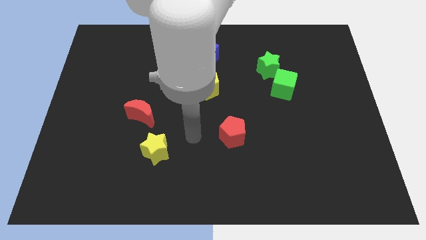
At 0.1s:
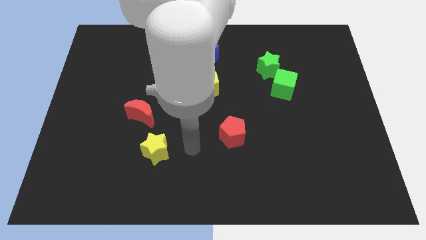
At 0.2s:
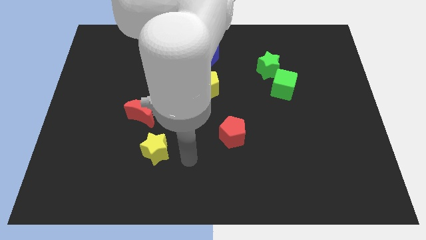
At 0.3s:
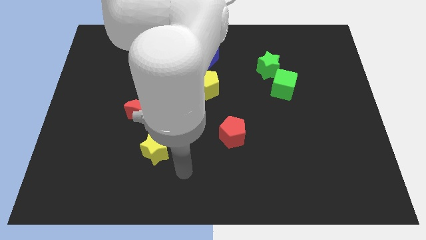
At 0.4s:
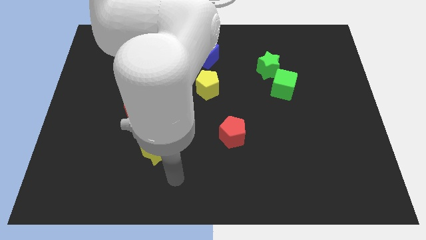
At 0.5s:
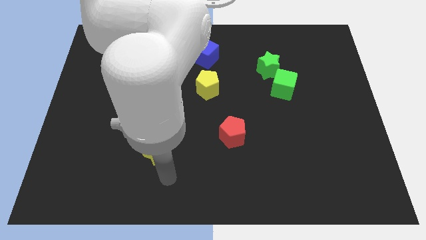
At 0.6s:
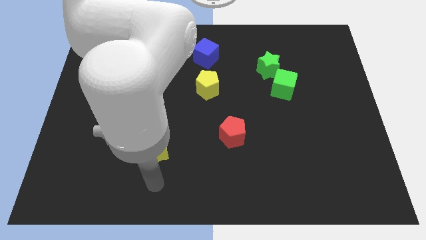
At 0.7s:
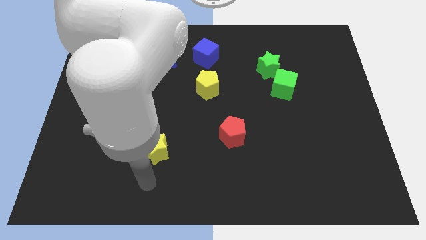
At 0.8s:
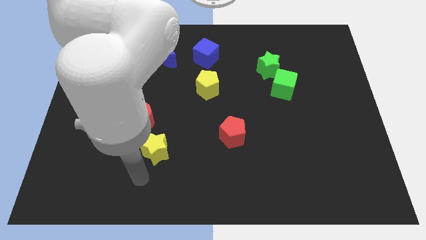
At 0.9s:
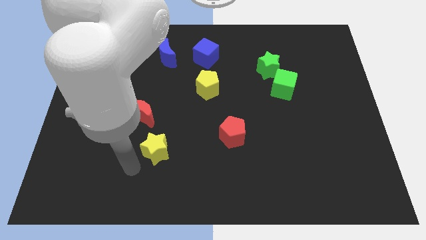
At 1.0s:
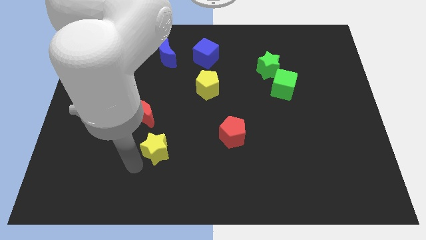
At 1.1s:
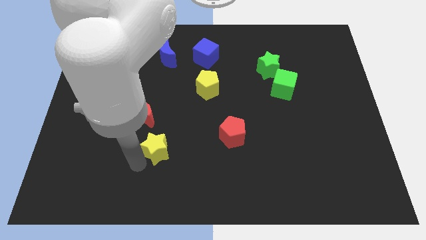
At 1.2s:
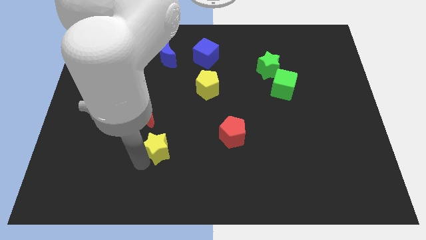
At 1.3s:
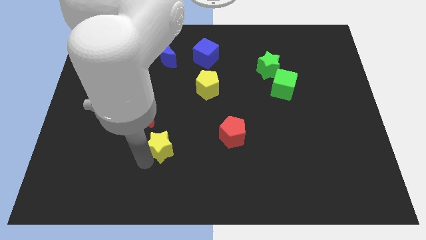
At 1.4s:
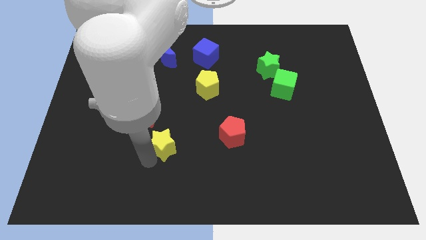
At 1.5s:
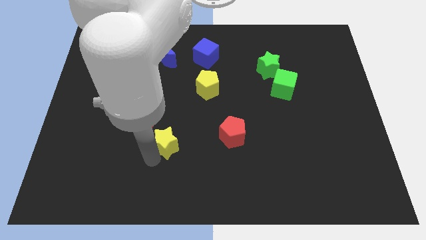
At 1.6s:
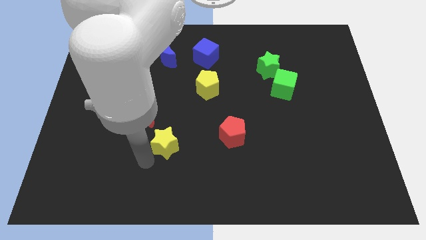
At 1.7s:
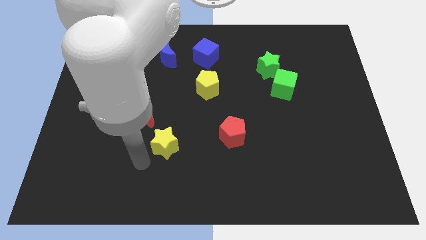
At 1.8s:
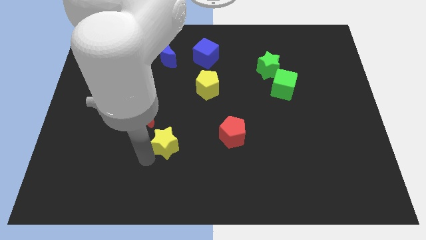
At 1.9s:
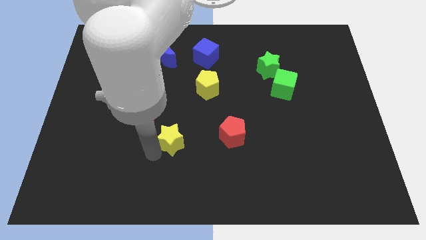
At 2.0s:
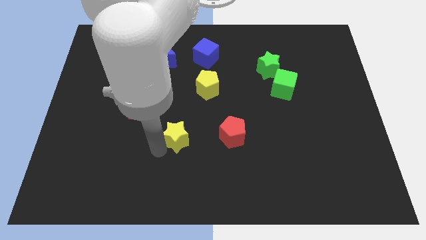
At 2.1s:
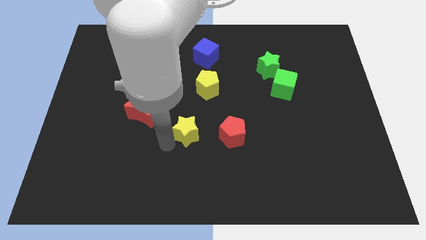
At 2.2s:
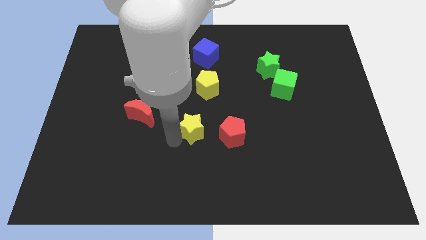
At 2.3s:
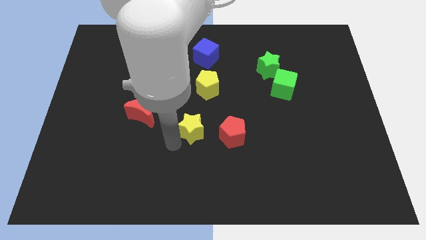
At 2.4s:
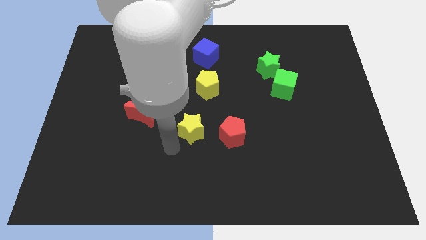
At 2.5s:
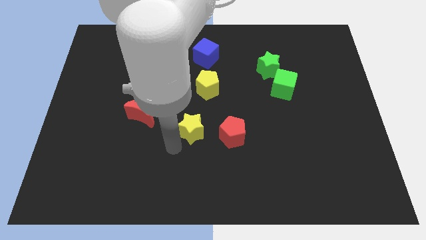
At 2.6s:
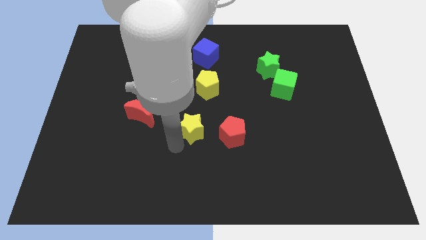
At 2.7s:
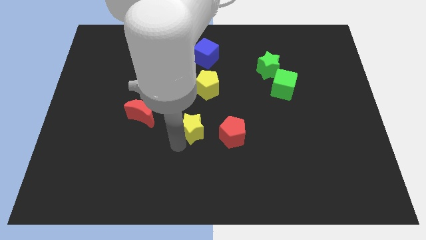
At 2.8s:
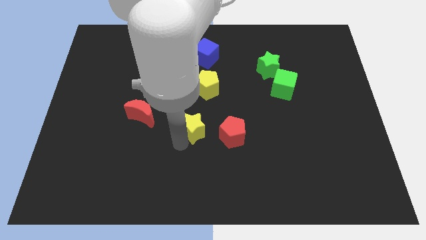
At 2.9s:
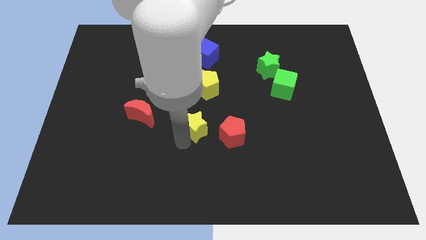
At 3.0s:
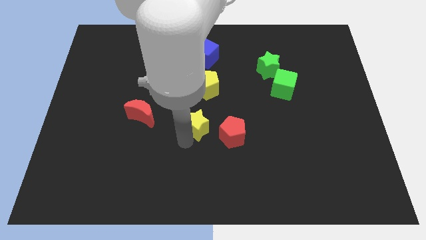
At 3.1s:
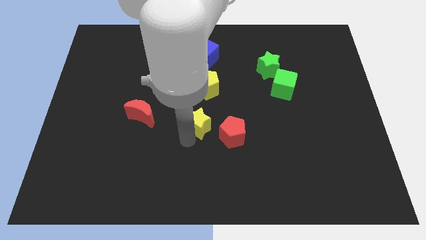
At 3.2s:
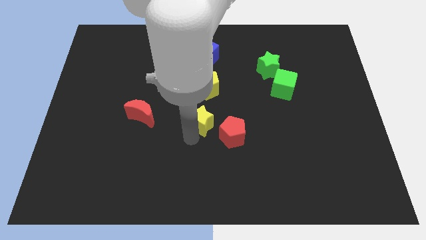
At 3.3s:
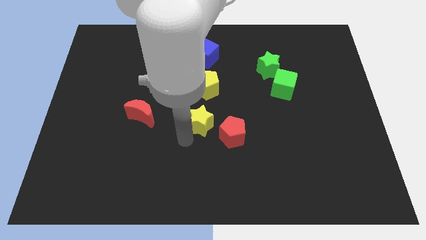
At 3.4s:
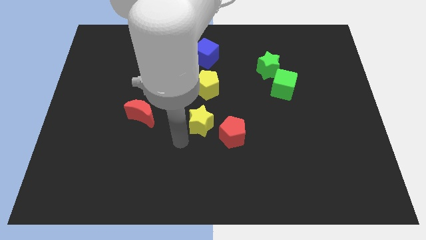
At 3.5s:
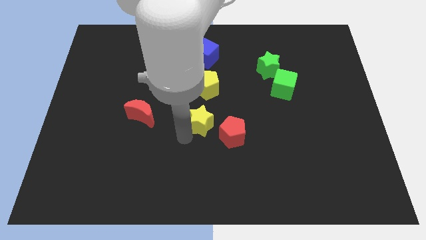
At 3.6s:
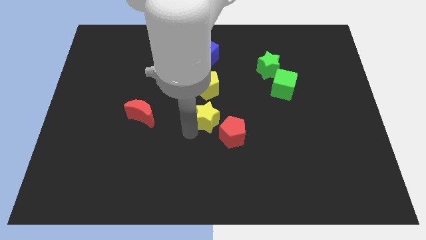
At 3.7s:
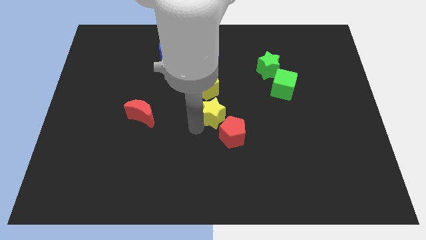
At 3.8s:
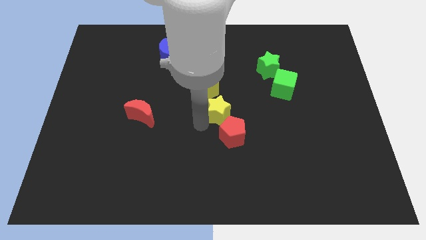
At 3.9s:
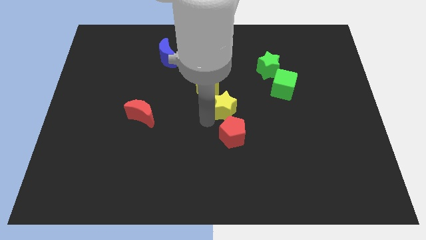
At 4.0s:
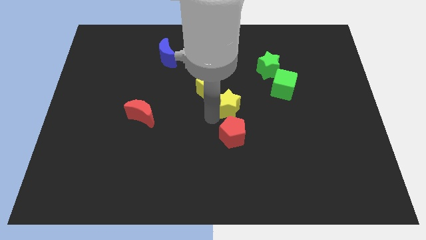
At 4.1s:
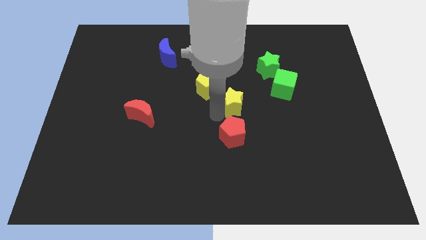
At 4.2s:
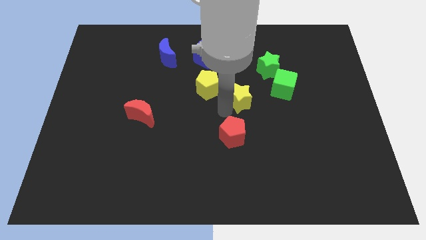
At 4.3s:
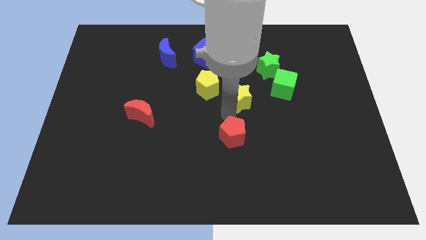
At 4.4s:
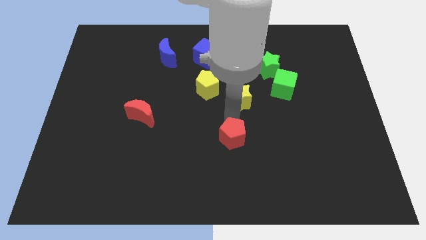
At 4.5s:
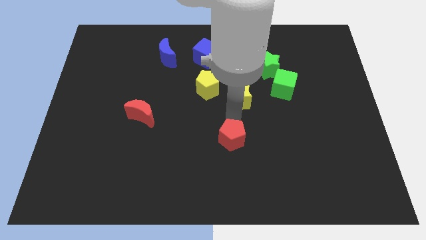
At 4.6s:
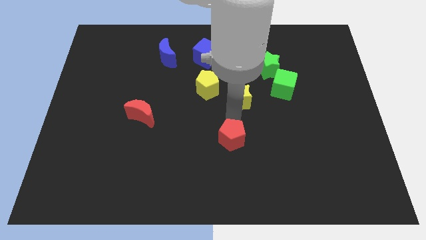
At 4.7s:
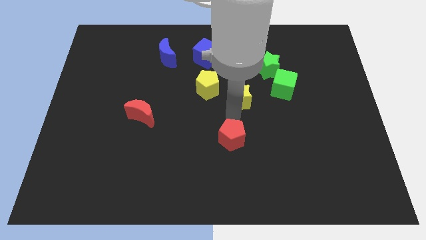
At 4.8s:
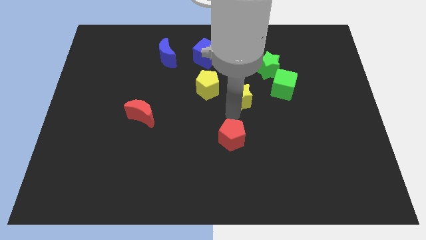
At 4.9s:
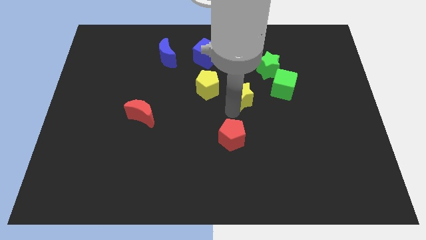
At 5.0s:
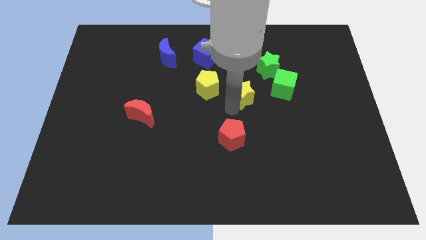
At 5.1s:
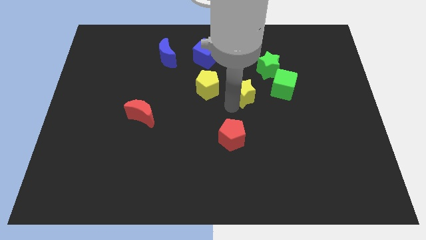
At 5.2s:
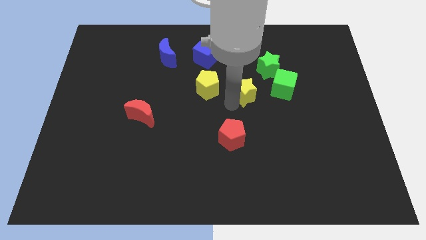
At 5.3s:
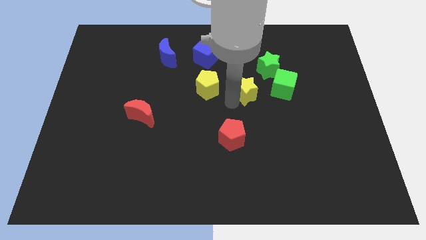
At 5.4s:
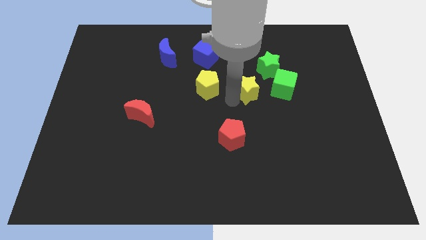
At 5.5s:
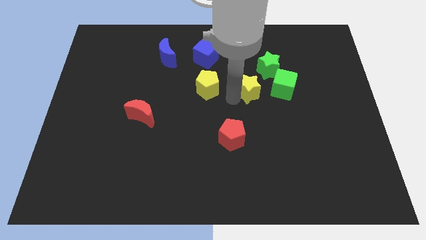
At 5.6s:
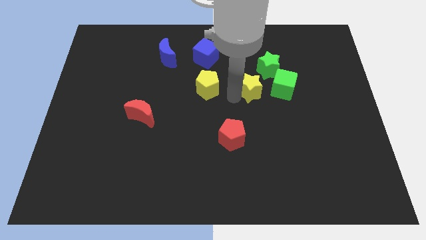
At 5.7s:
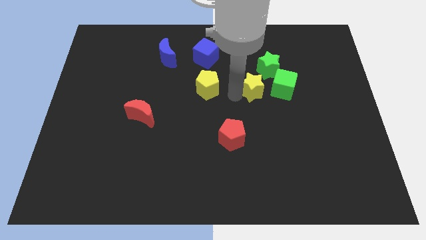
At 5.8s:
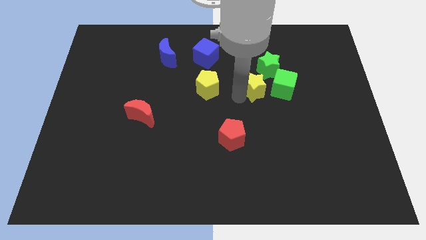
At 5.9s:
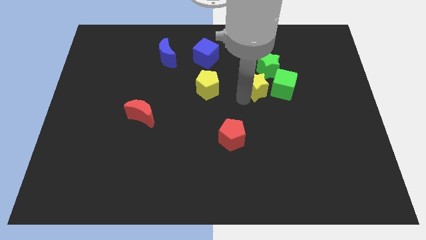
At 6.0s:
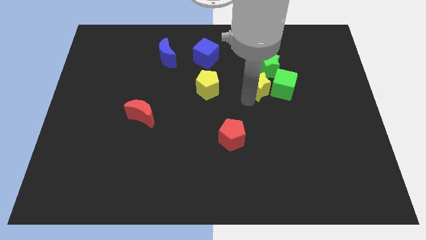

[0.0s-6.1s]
move the yellow star to the top left side of the green cube

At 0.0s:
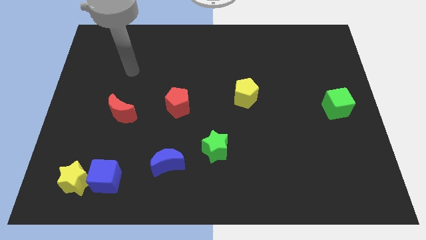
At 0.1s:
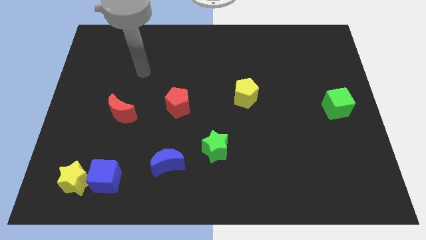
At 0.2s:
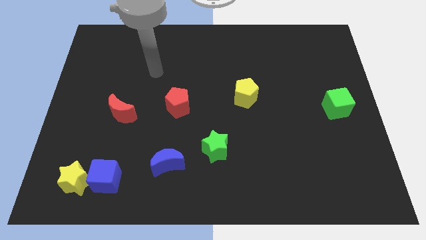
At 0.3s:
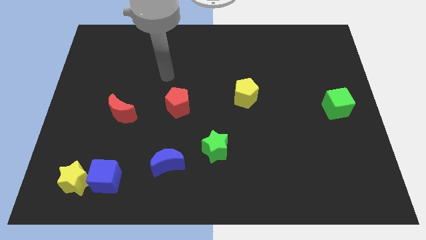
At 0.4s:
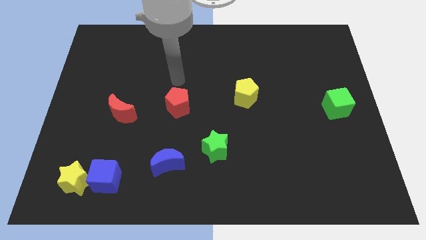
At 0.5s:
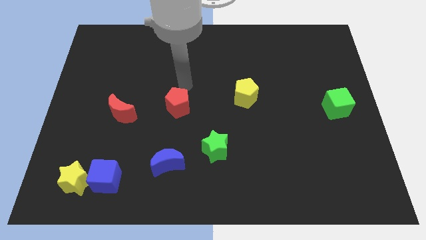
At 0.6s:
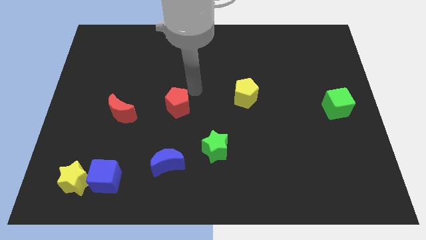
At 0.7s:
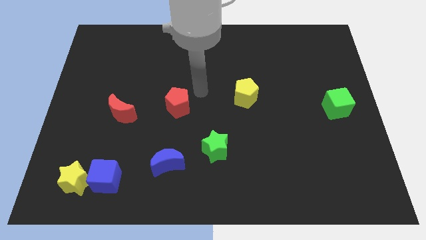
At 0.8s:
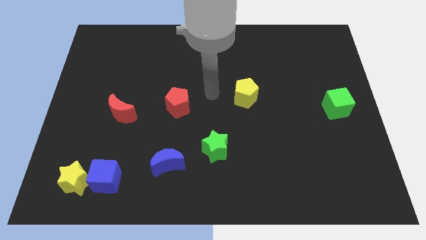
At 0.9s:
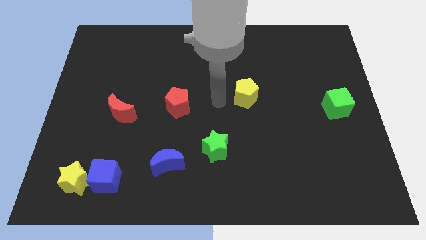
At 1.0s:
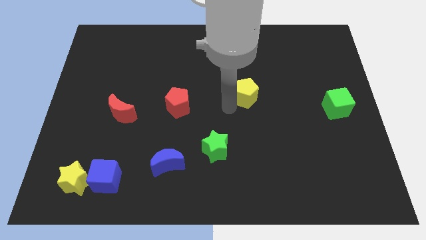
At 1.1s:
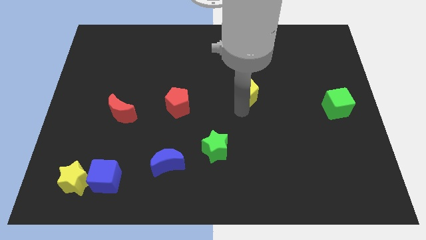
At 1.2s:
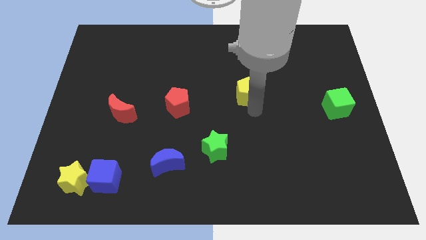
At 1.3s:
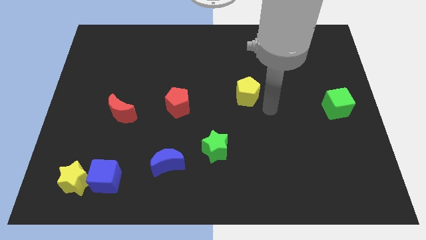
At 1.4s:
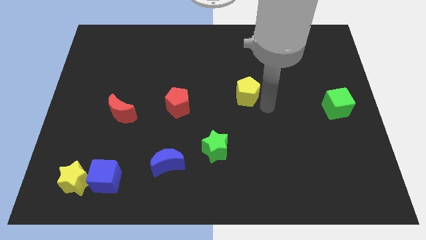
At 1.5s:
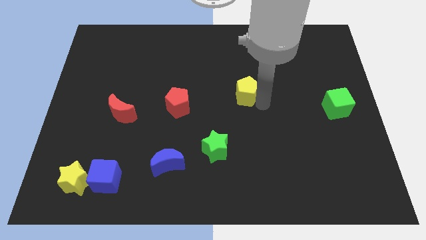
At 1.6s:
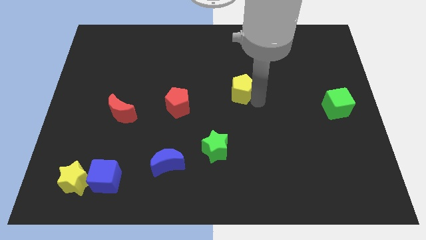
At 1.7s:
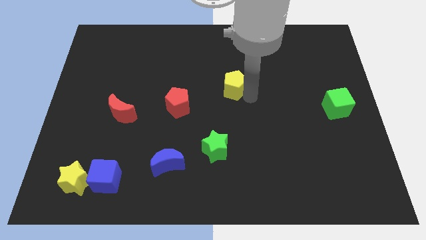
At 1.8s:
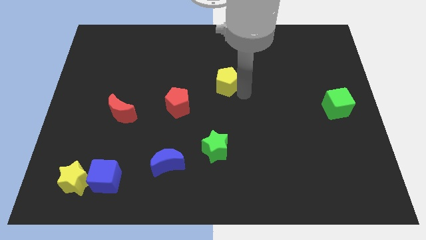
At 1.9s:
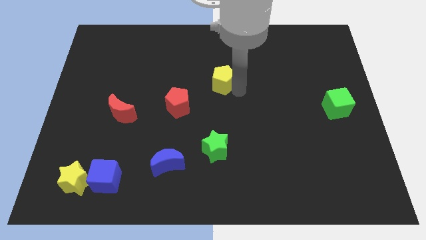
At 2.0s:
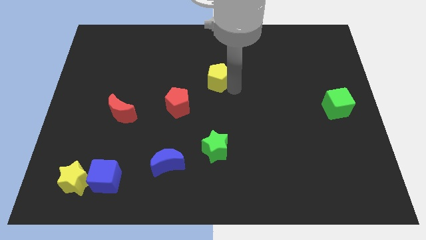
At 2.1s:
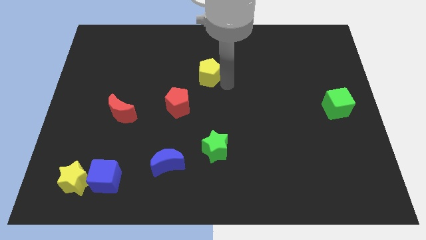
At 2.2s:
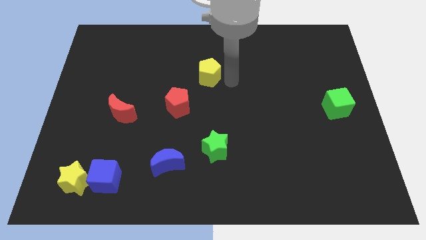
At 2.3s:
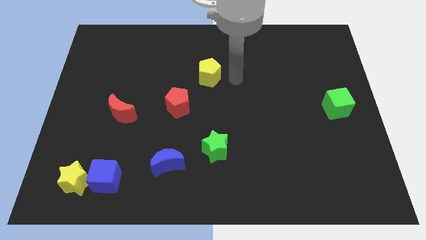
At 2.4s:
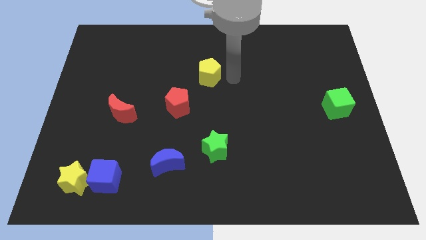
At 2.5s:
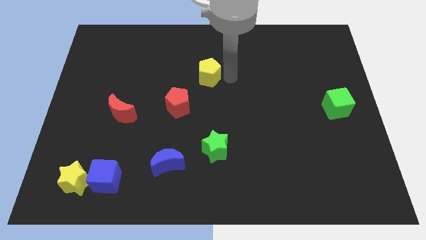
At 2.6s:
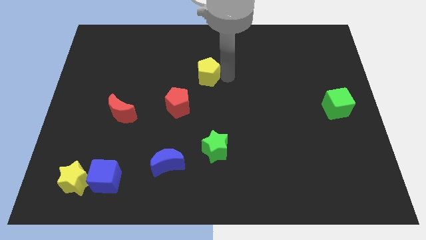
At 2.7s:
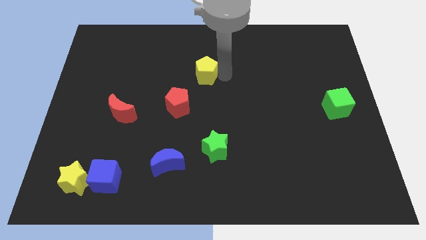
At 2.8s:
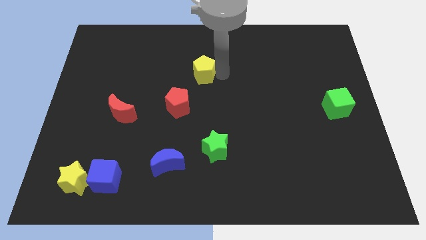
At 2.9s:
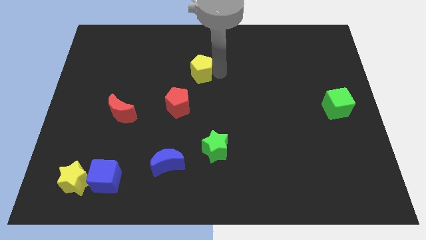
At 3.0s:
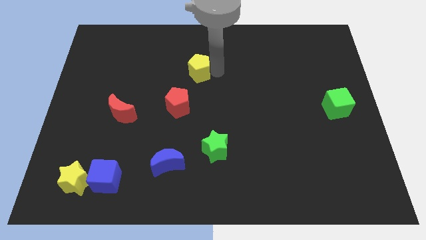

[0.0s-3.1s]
slide the yellow pentagon above the red pentagon
